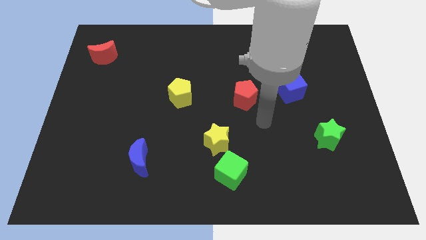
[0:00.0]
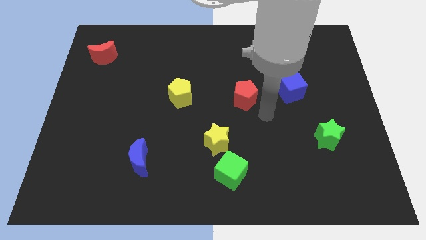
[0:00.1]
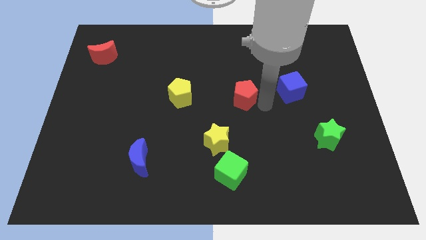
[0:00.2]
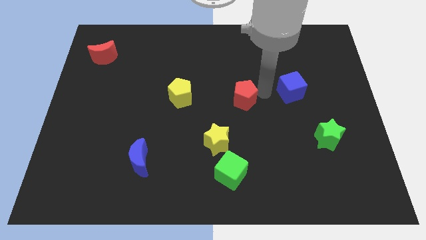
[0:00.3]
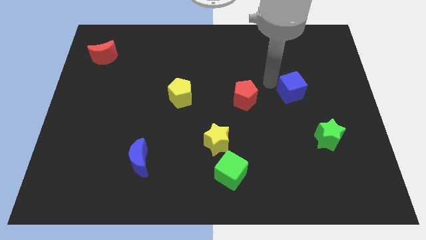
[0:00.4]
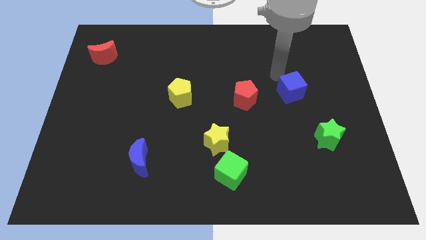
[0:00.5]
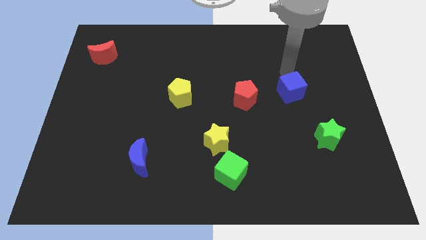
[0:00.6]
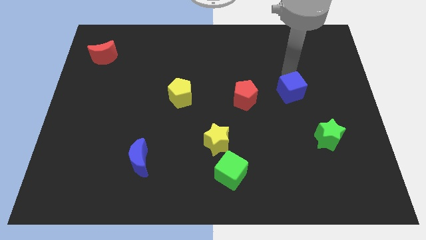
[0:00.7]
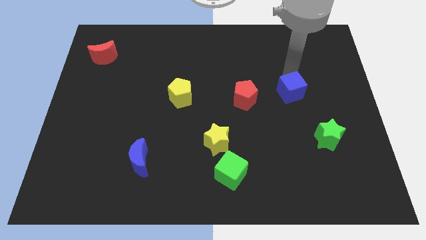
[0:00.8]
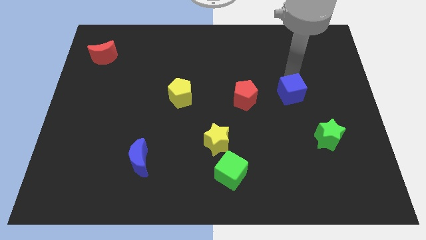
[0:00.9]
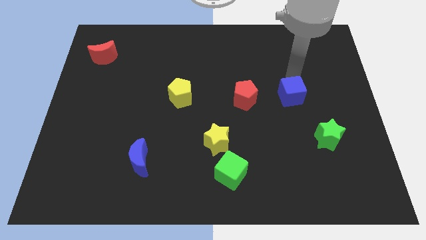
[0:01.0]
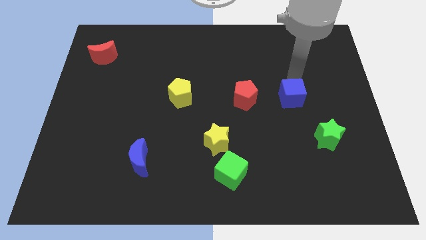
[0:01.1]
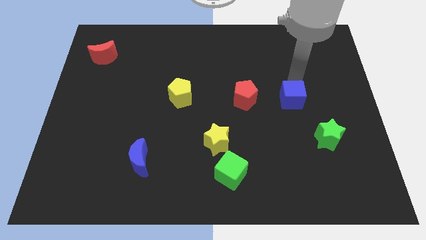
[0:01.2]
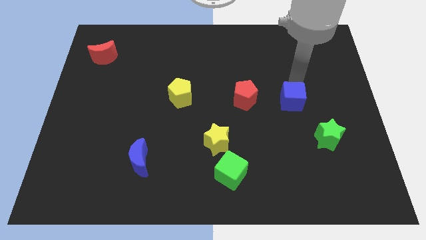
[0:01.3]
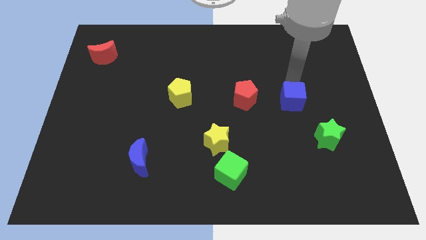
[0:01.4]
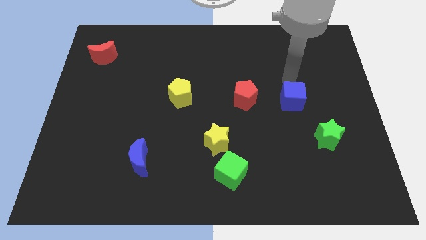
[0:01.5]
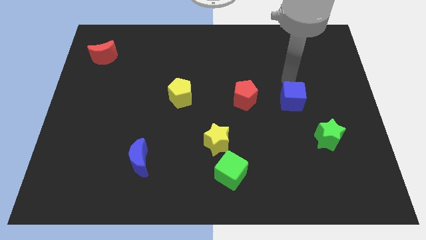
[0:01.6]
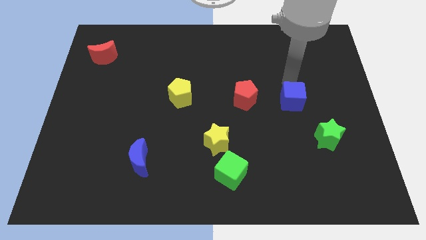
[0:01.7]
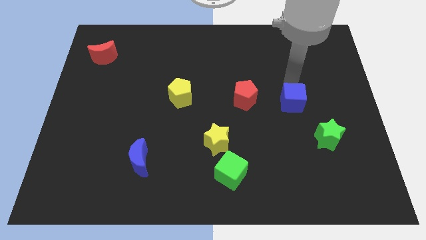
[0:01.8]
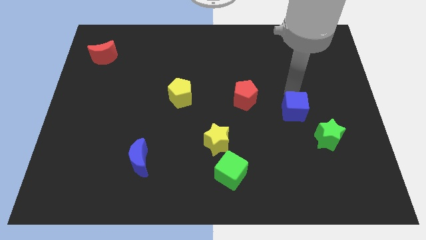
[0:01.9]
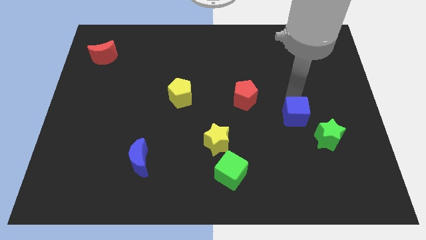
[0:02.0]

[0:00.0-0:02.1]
slightly slide the blue cube downwards

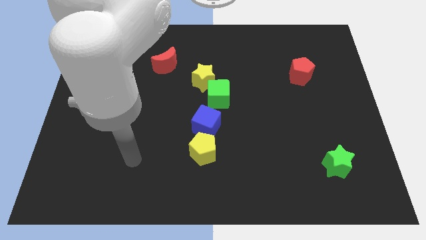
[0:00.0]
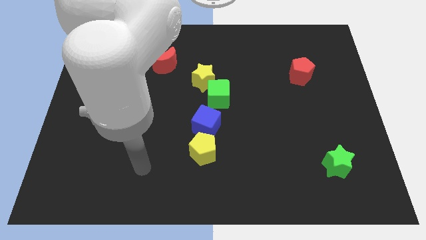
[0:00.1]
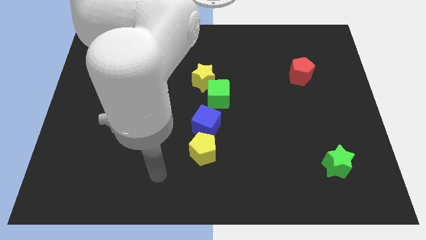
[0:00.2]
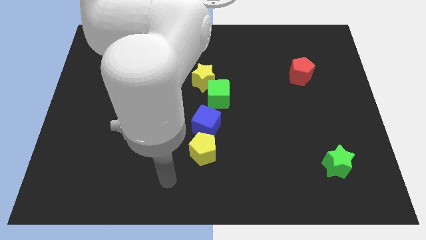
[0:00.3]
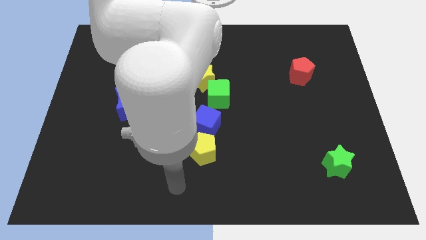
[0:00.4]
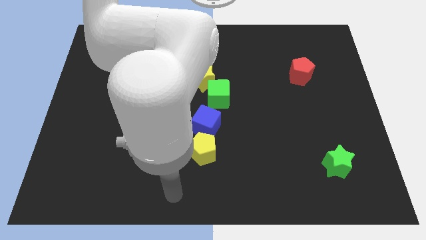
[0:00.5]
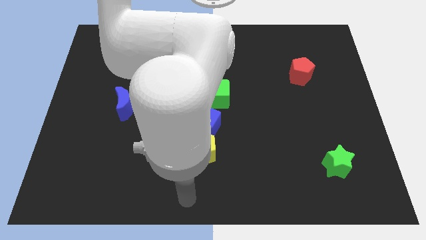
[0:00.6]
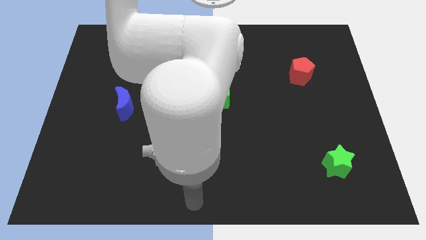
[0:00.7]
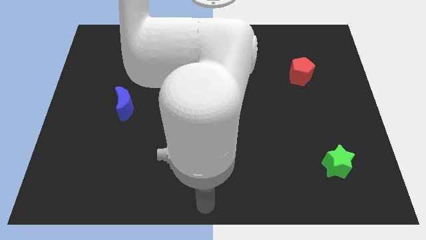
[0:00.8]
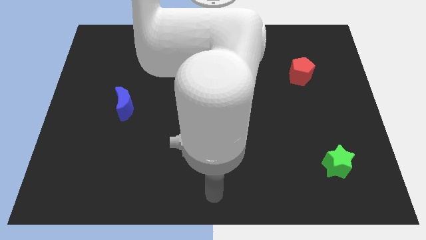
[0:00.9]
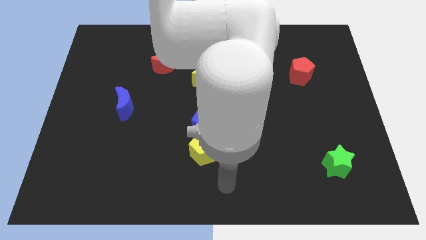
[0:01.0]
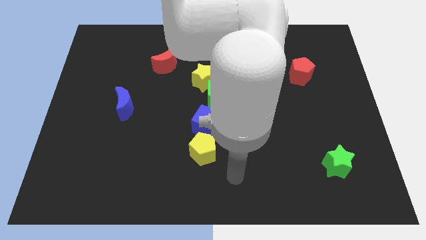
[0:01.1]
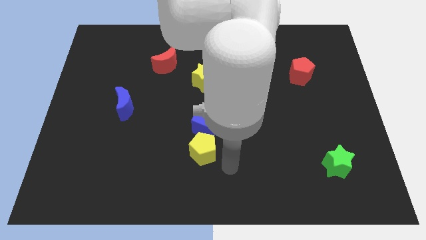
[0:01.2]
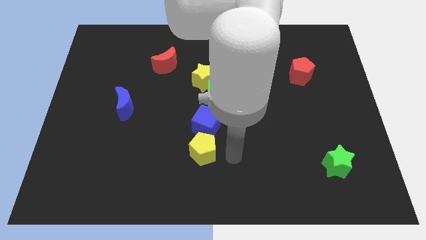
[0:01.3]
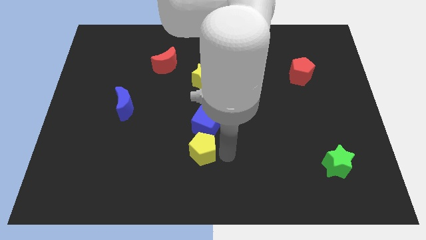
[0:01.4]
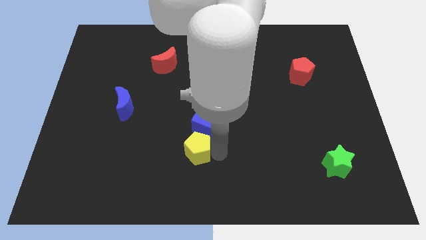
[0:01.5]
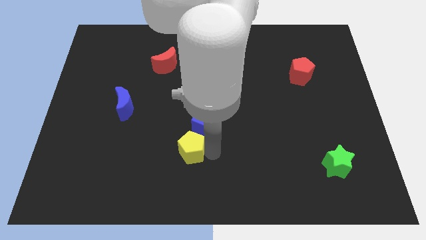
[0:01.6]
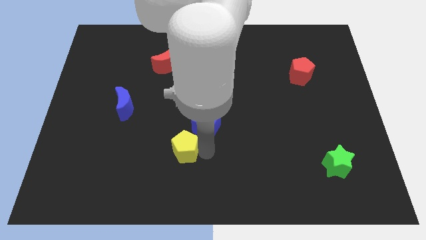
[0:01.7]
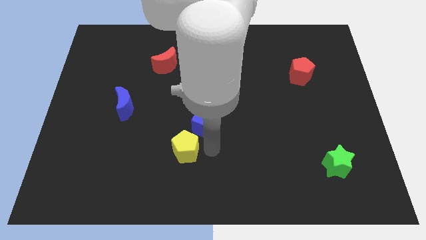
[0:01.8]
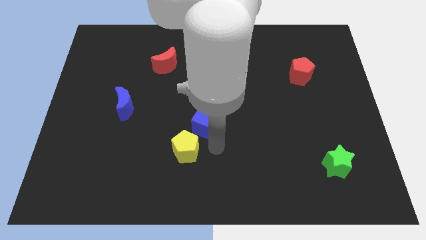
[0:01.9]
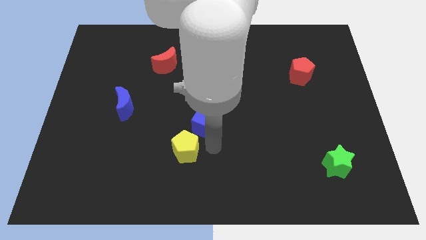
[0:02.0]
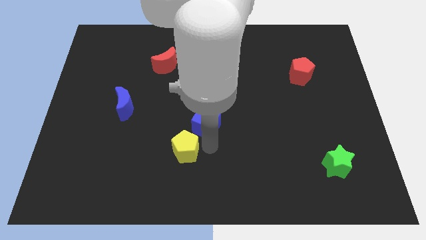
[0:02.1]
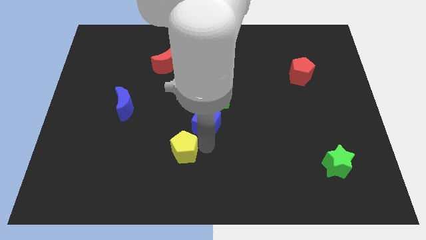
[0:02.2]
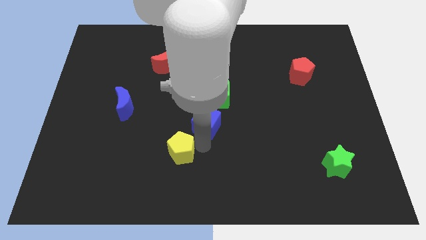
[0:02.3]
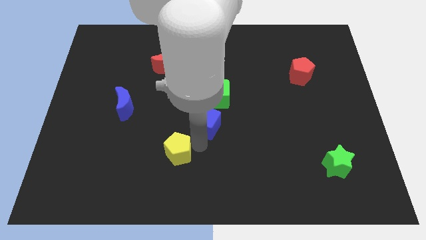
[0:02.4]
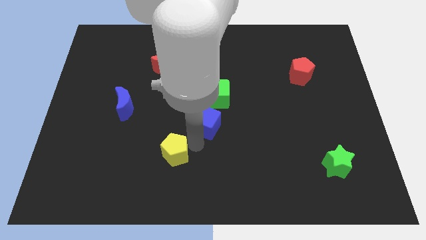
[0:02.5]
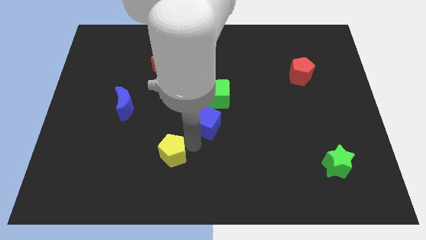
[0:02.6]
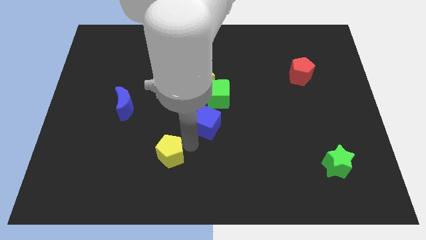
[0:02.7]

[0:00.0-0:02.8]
slightly push the yellow pentagon left

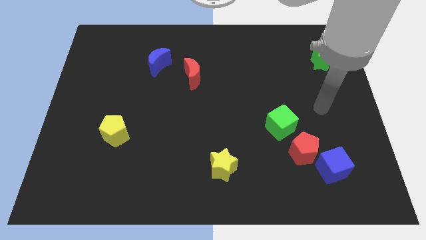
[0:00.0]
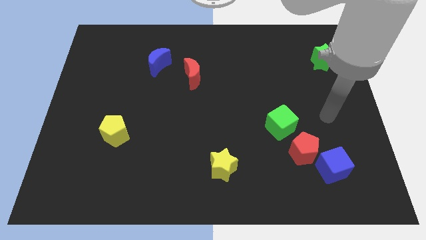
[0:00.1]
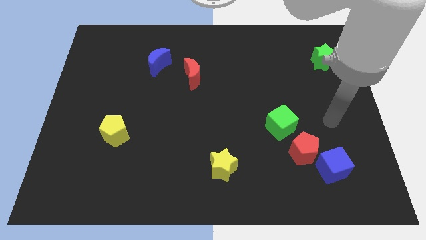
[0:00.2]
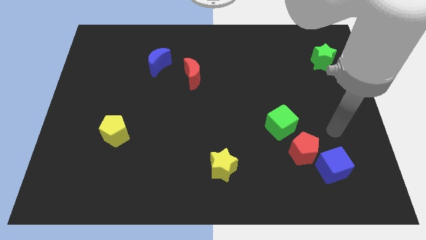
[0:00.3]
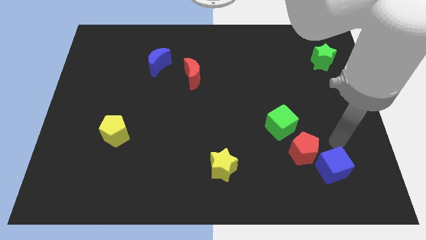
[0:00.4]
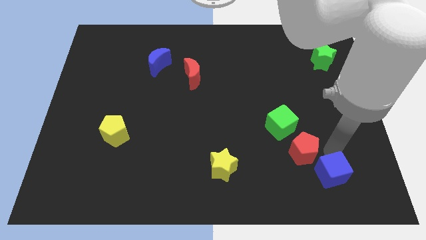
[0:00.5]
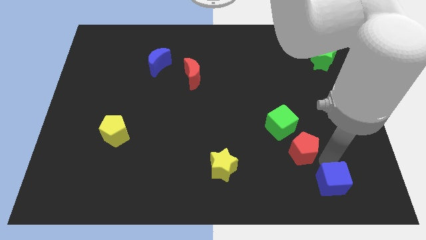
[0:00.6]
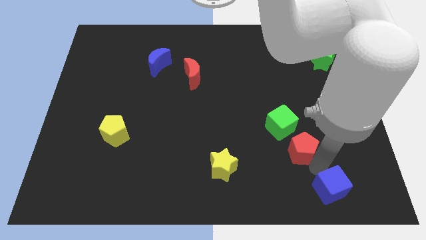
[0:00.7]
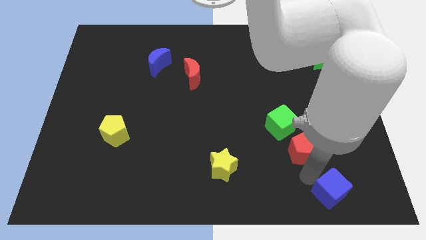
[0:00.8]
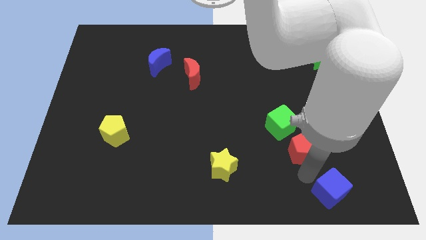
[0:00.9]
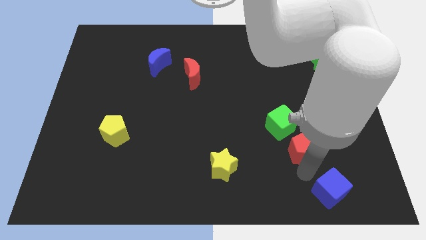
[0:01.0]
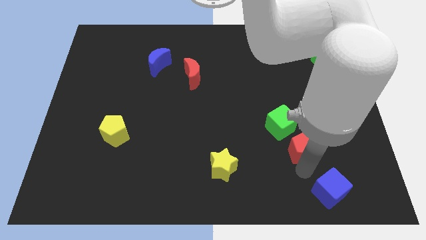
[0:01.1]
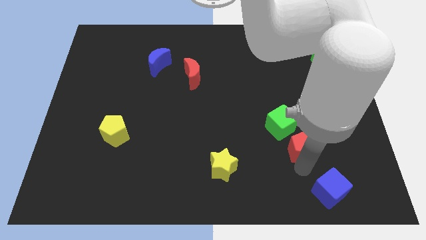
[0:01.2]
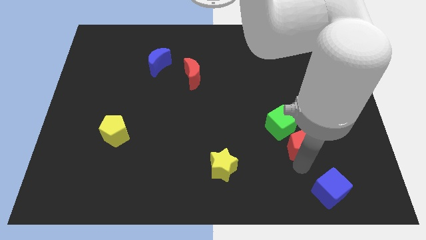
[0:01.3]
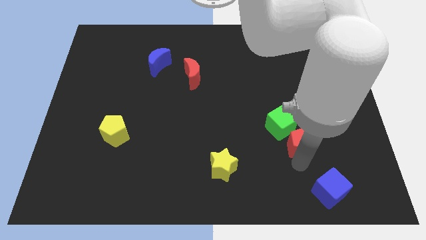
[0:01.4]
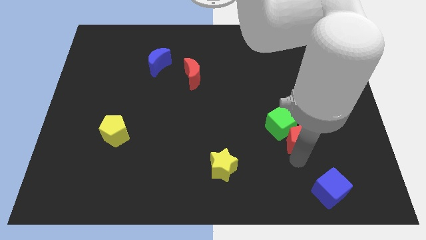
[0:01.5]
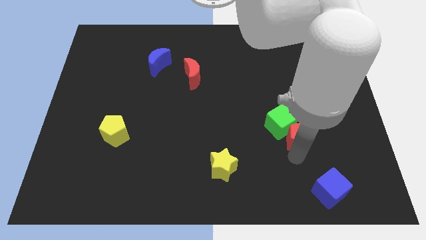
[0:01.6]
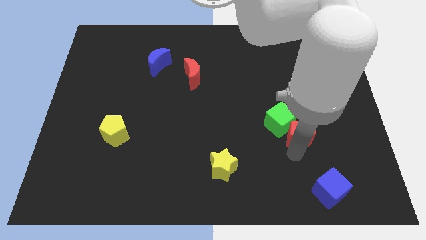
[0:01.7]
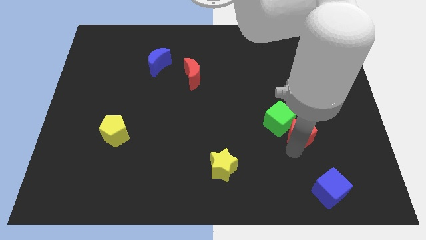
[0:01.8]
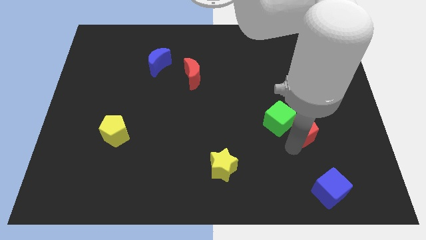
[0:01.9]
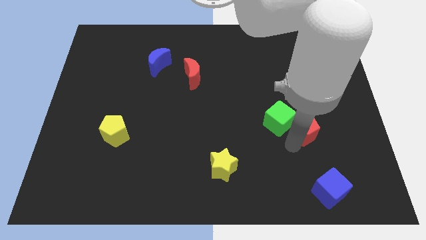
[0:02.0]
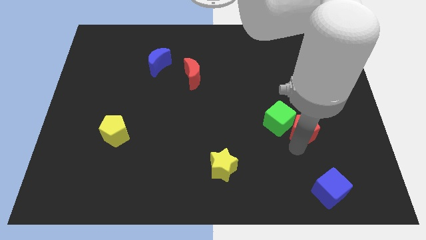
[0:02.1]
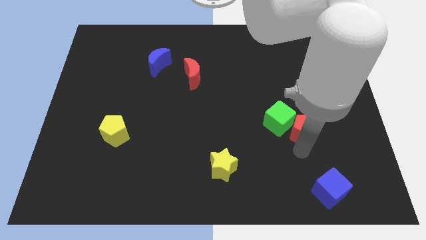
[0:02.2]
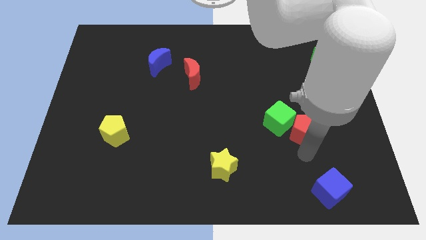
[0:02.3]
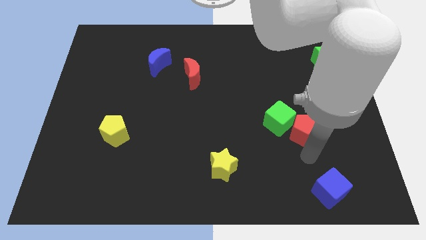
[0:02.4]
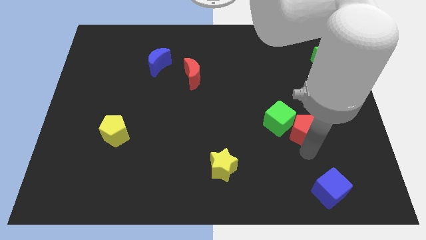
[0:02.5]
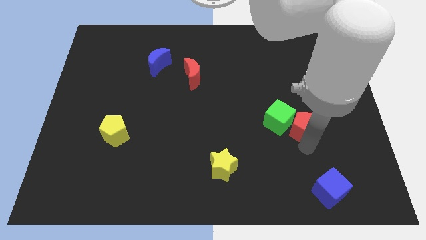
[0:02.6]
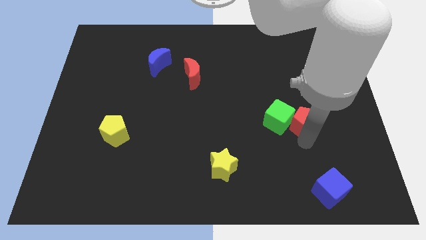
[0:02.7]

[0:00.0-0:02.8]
slightly move the red pentagon upwards
